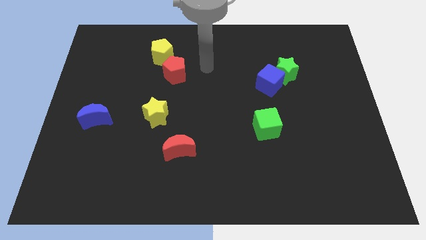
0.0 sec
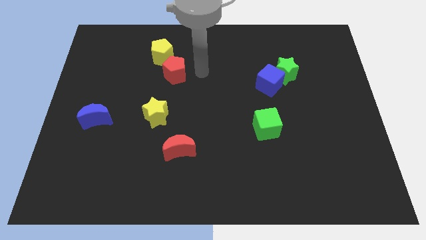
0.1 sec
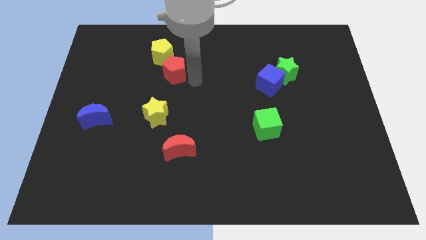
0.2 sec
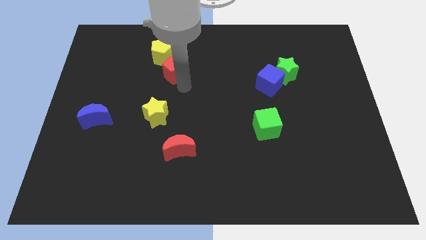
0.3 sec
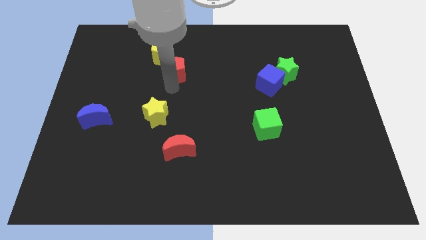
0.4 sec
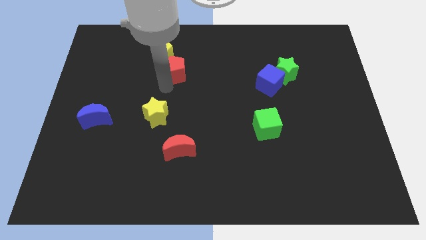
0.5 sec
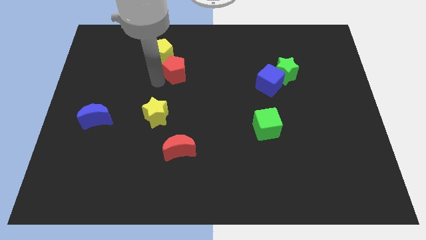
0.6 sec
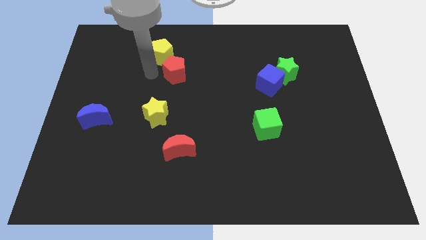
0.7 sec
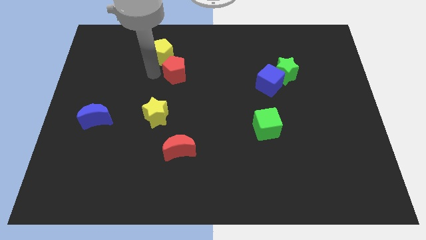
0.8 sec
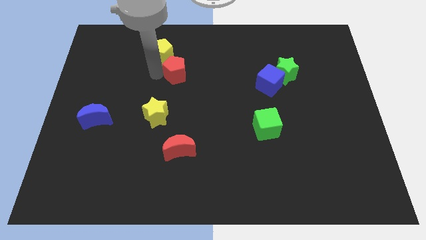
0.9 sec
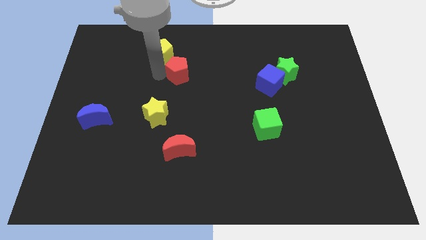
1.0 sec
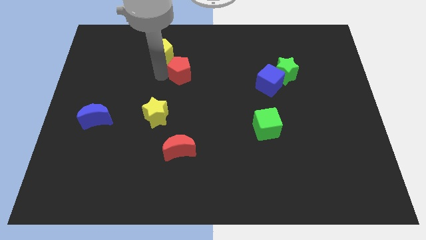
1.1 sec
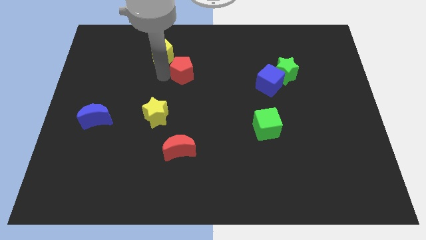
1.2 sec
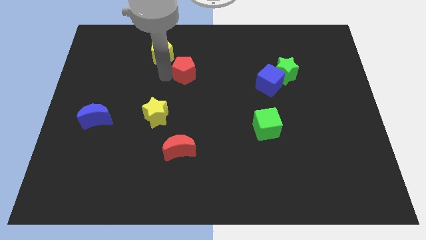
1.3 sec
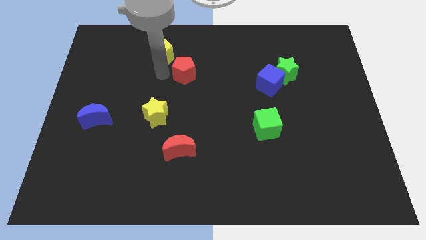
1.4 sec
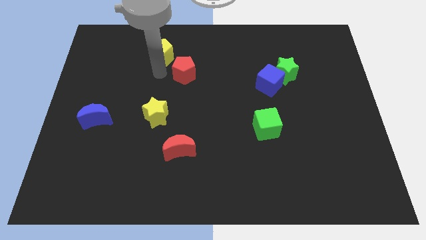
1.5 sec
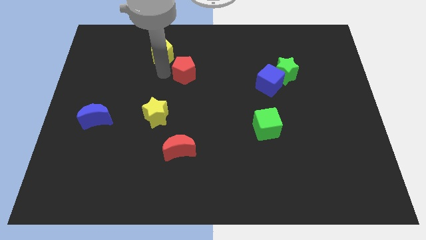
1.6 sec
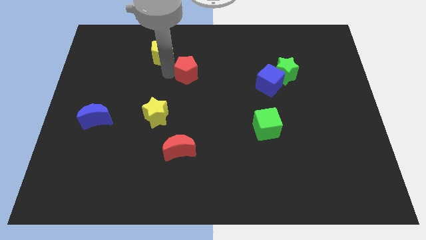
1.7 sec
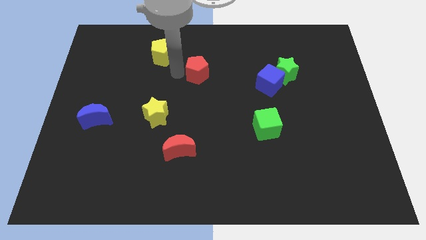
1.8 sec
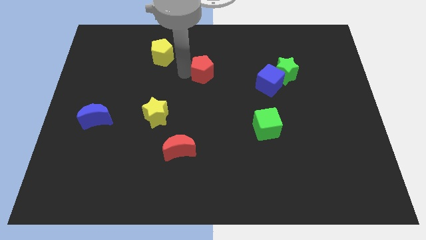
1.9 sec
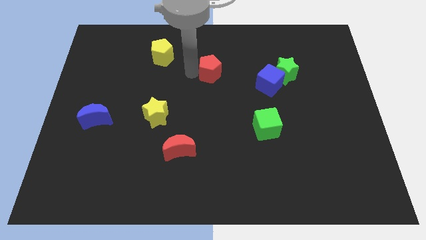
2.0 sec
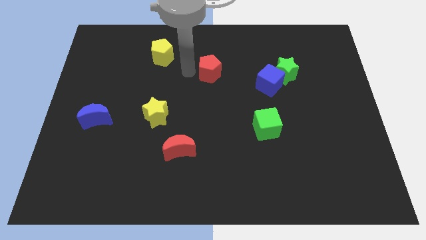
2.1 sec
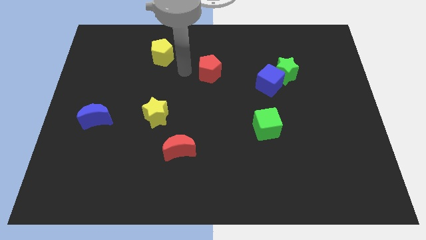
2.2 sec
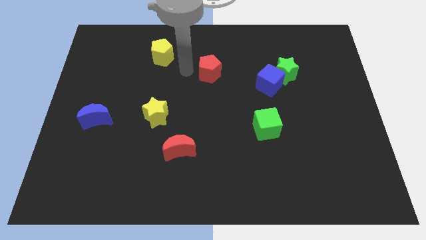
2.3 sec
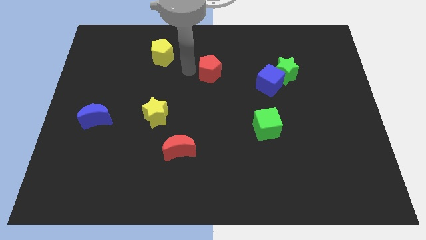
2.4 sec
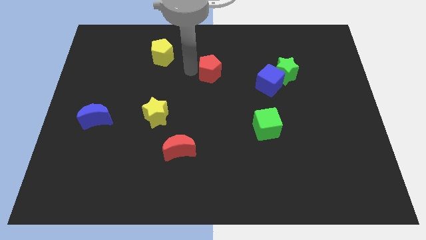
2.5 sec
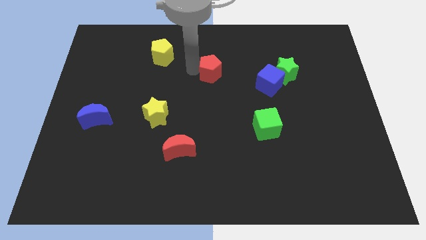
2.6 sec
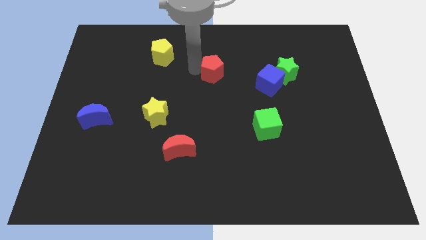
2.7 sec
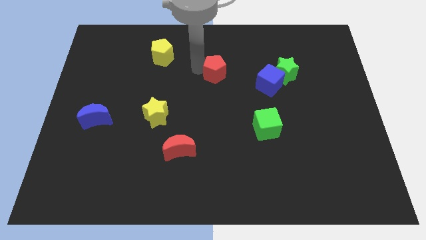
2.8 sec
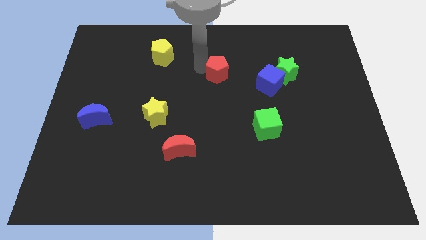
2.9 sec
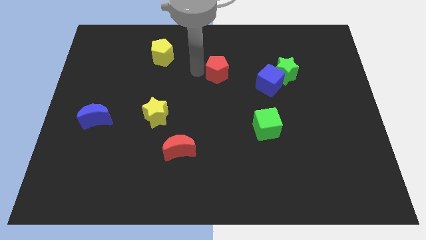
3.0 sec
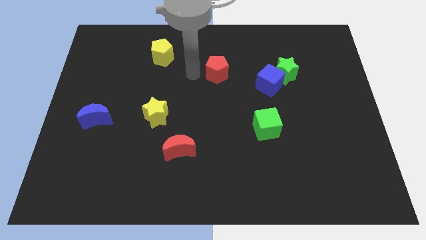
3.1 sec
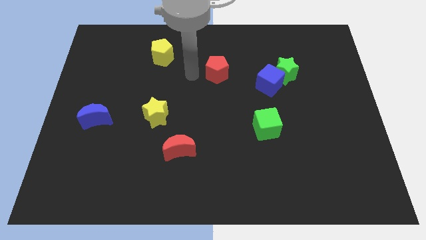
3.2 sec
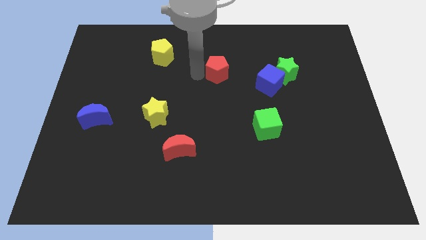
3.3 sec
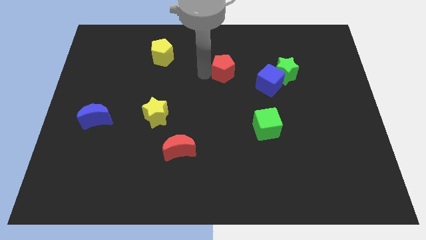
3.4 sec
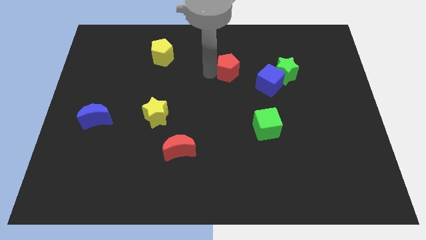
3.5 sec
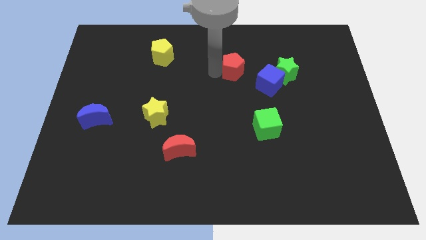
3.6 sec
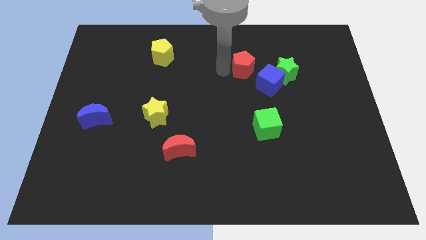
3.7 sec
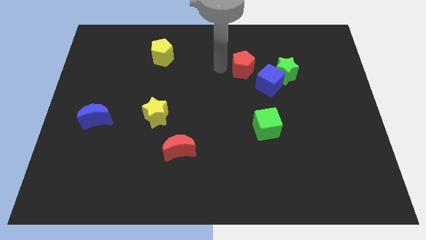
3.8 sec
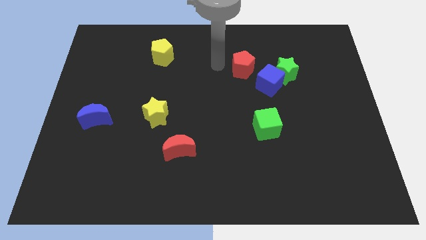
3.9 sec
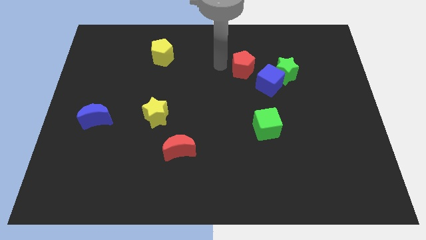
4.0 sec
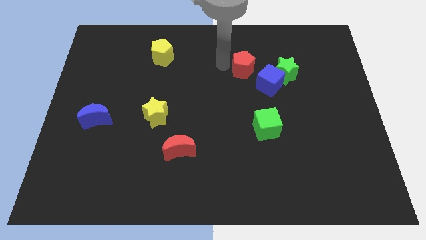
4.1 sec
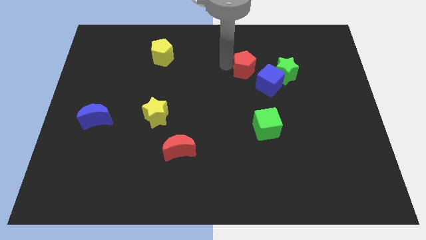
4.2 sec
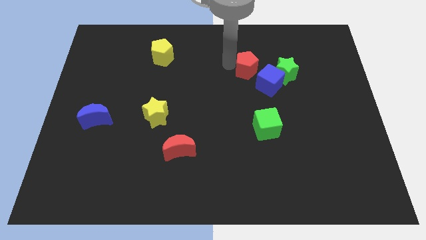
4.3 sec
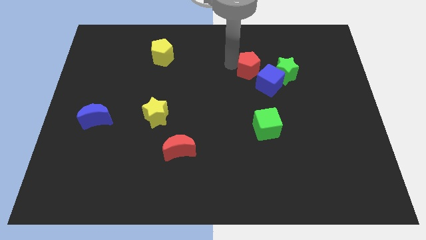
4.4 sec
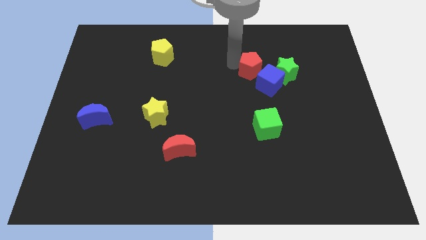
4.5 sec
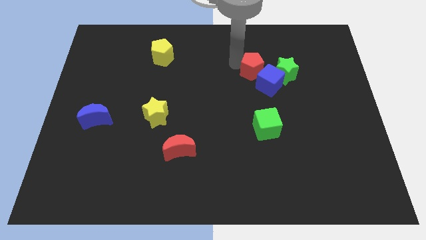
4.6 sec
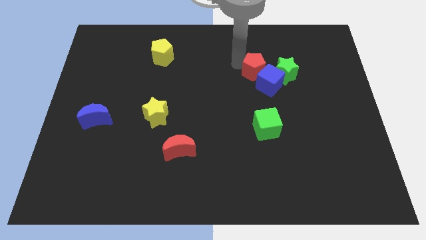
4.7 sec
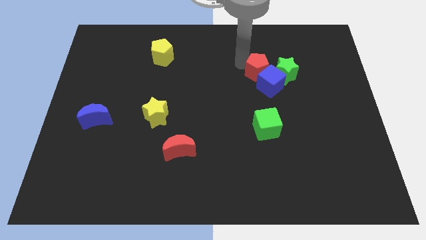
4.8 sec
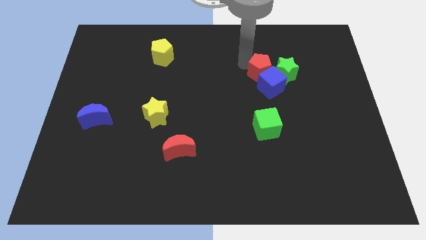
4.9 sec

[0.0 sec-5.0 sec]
push the red pentagon towards the green star

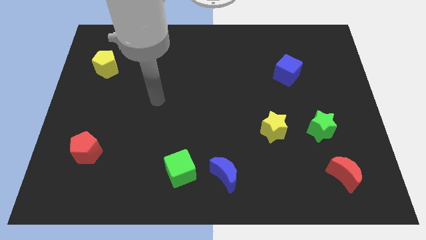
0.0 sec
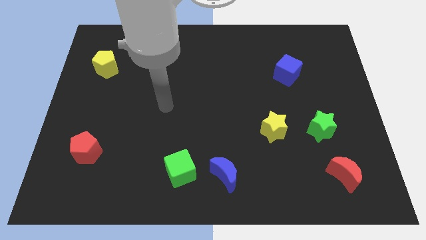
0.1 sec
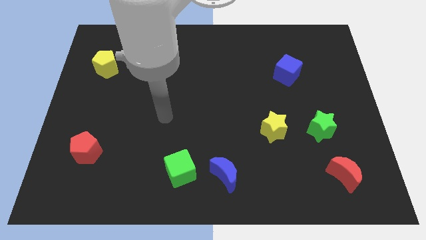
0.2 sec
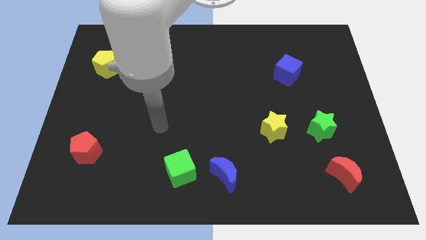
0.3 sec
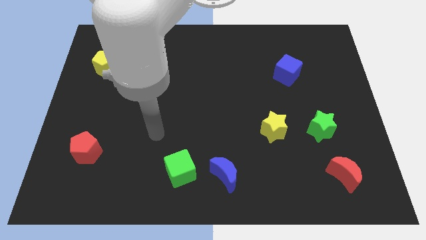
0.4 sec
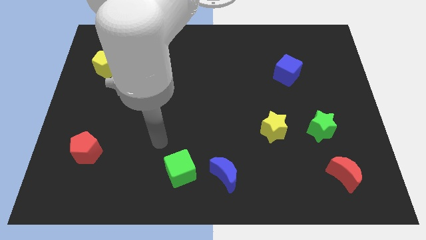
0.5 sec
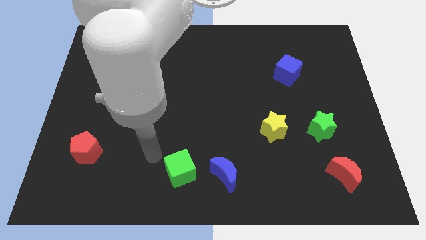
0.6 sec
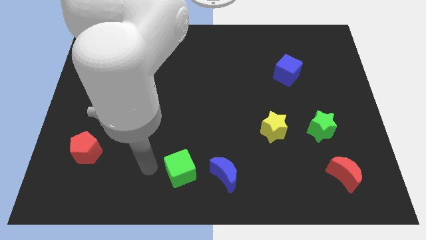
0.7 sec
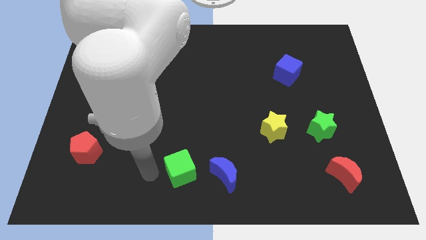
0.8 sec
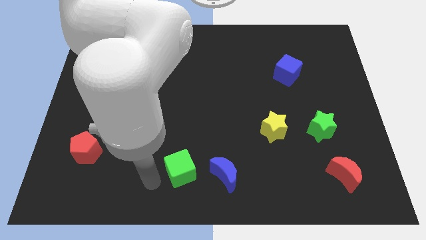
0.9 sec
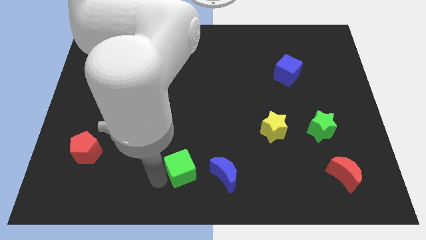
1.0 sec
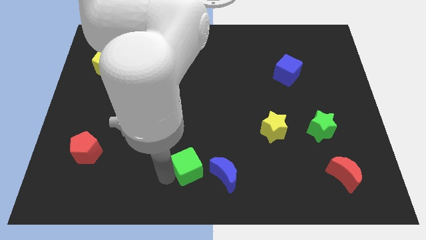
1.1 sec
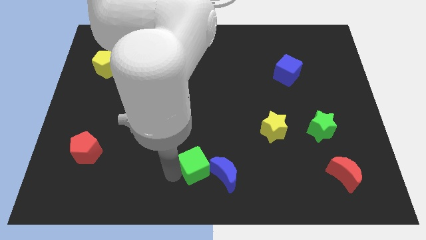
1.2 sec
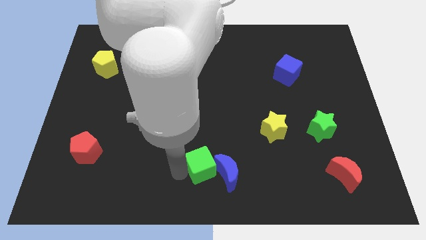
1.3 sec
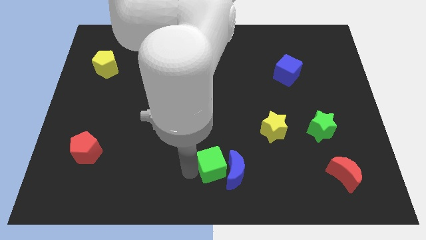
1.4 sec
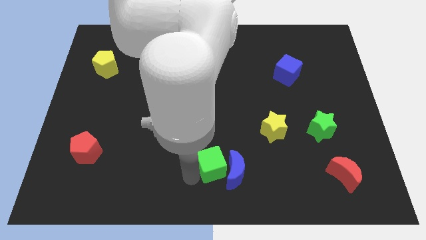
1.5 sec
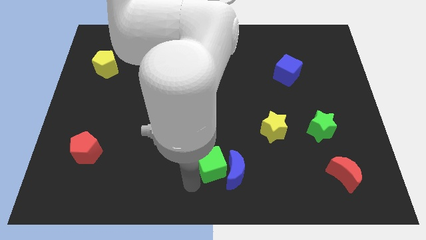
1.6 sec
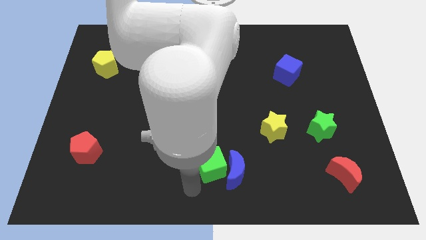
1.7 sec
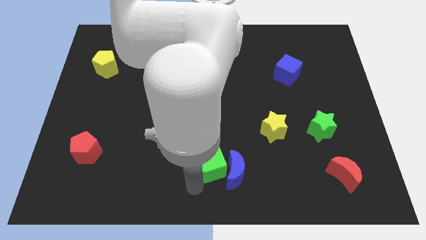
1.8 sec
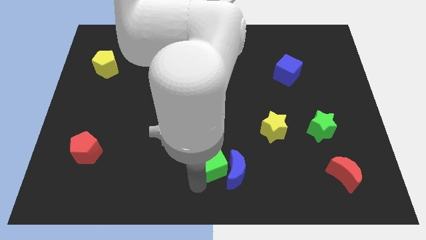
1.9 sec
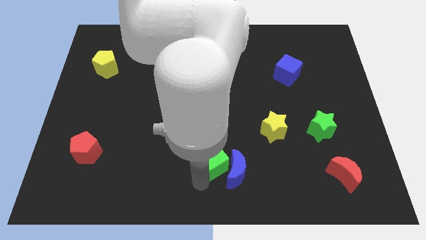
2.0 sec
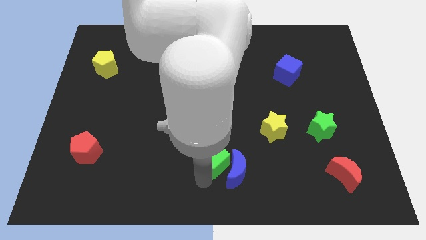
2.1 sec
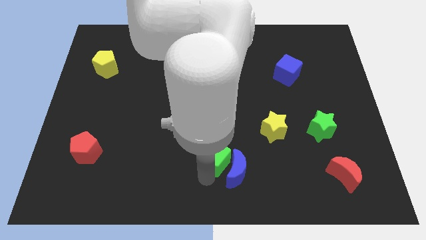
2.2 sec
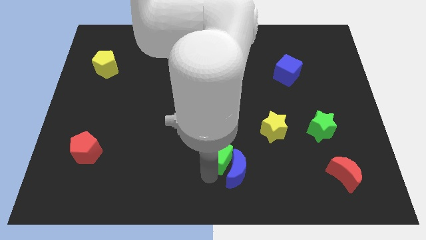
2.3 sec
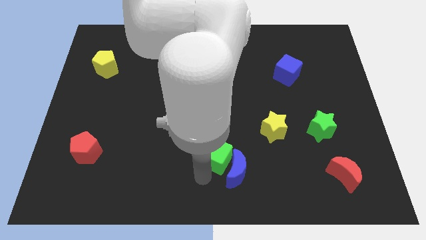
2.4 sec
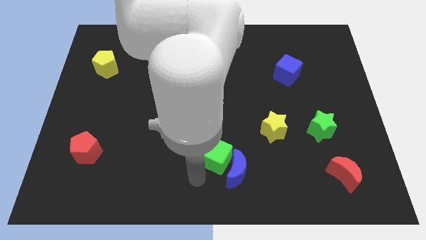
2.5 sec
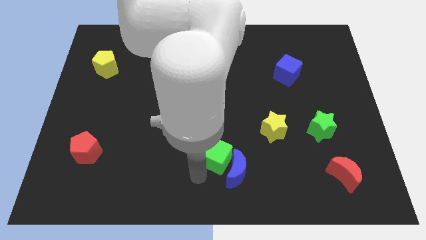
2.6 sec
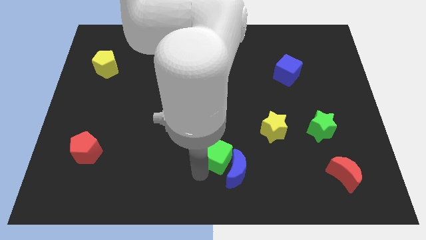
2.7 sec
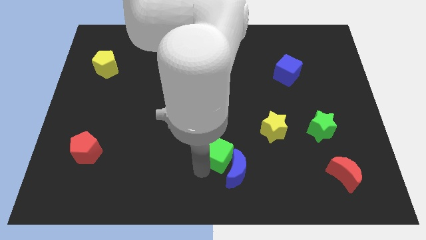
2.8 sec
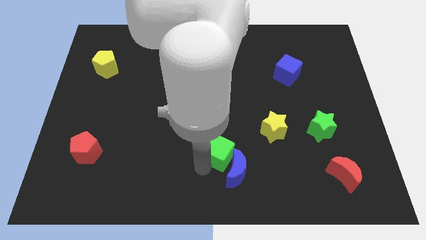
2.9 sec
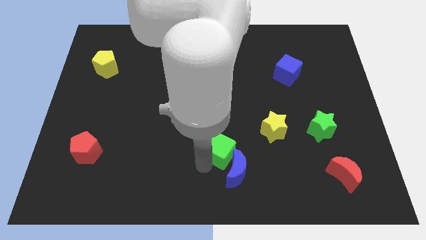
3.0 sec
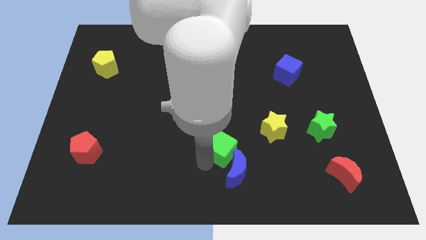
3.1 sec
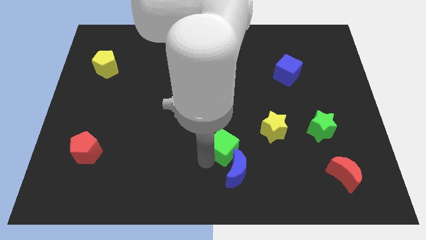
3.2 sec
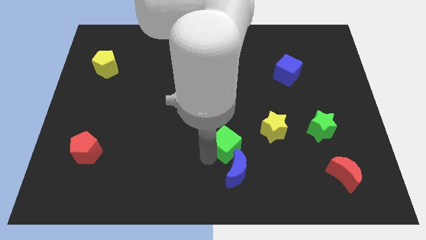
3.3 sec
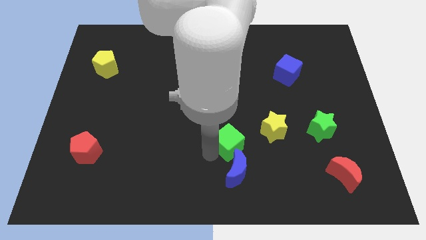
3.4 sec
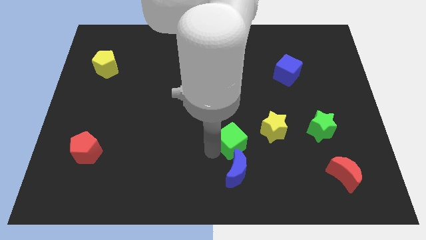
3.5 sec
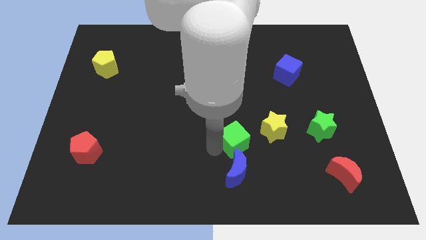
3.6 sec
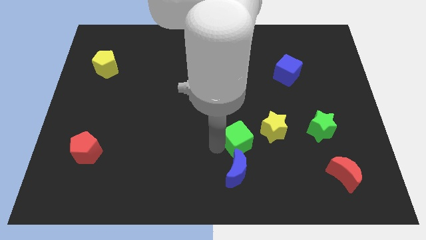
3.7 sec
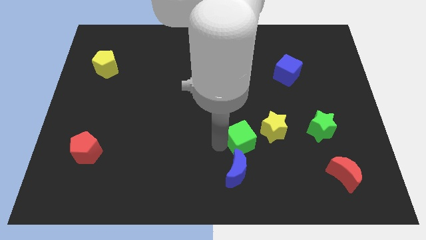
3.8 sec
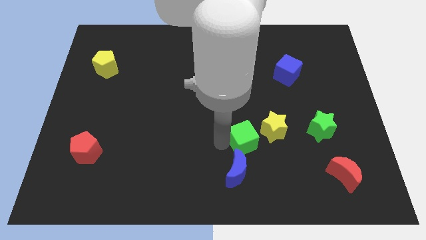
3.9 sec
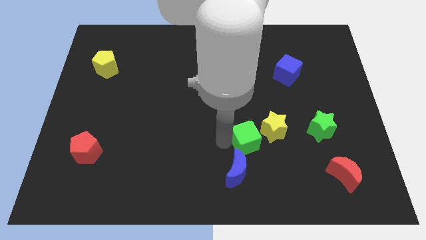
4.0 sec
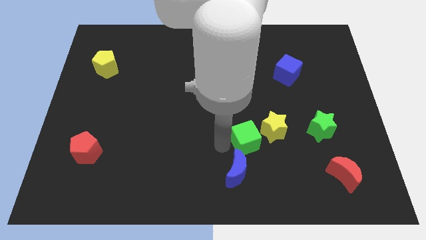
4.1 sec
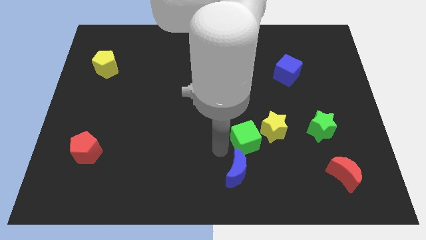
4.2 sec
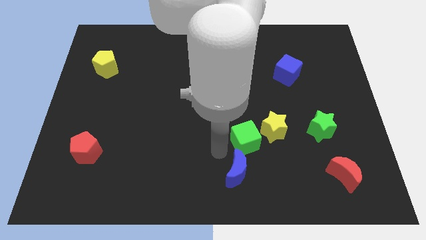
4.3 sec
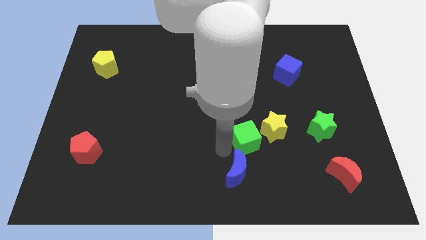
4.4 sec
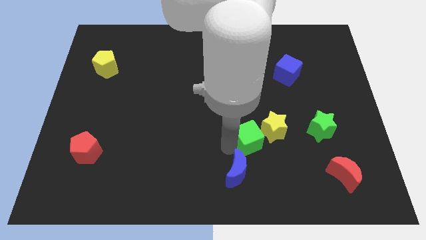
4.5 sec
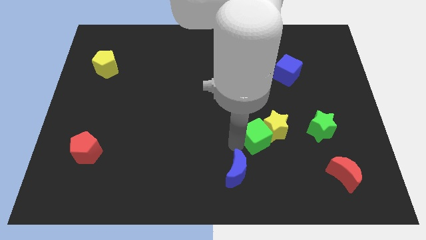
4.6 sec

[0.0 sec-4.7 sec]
slide the green cube to the yellow star
